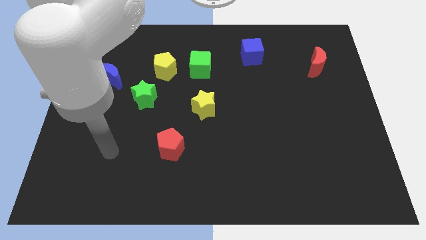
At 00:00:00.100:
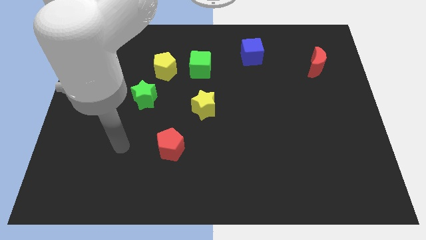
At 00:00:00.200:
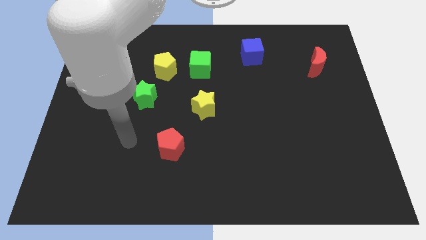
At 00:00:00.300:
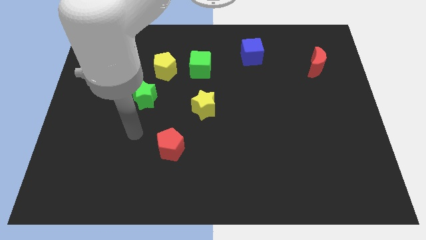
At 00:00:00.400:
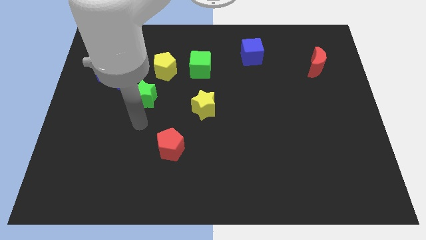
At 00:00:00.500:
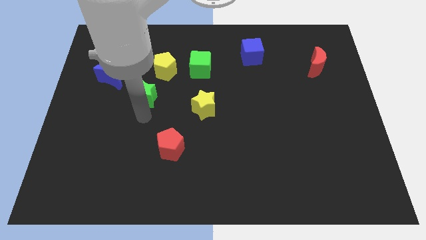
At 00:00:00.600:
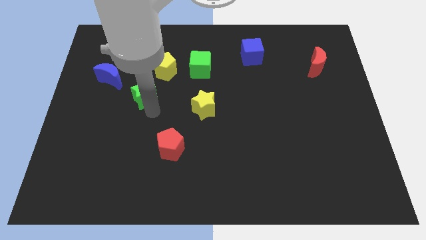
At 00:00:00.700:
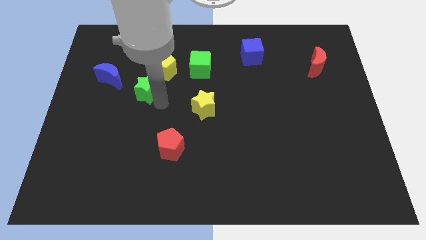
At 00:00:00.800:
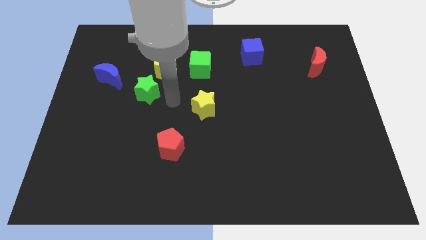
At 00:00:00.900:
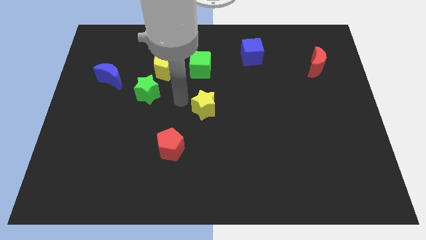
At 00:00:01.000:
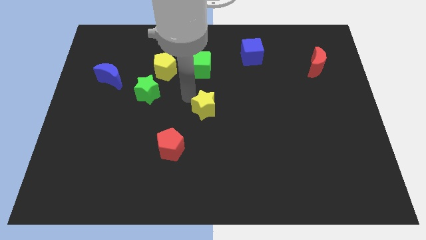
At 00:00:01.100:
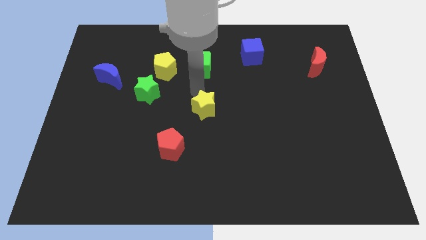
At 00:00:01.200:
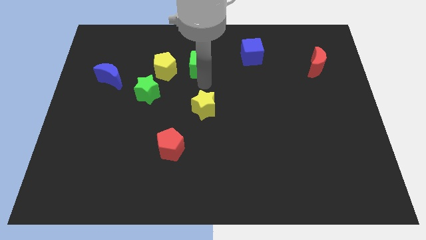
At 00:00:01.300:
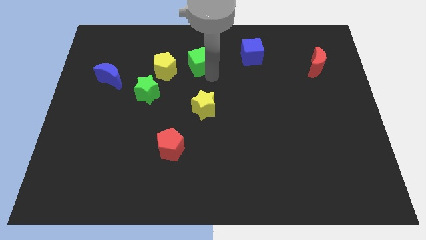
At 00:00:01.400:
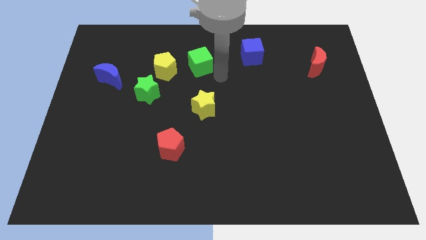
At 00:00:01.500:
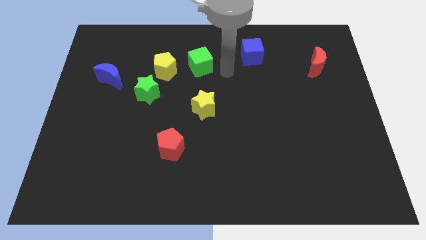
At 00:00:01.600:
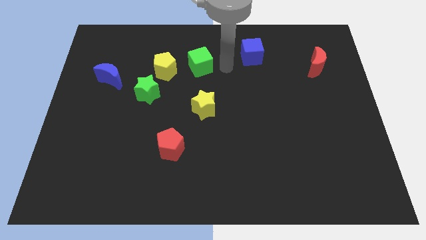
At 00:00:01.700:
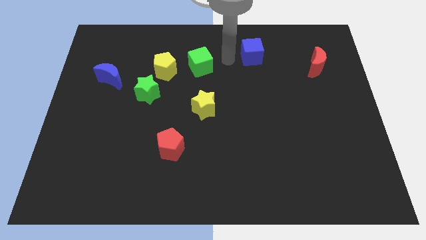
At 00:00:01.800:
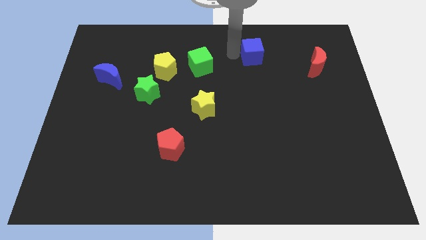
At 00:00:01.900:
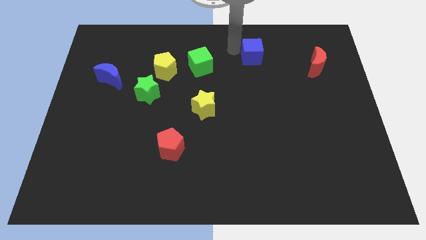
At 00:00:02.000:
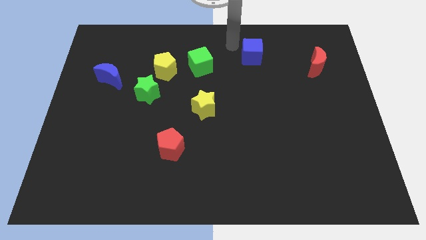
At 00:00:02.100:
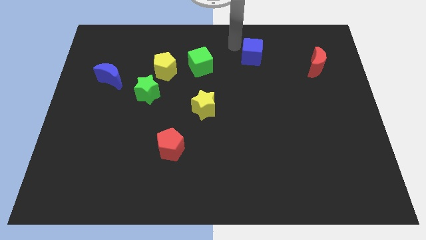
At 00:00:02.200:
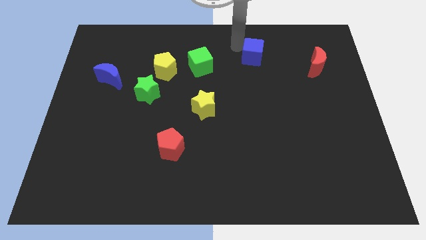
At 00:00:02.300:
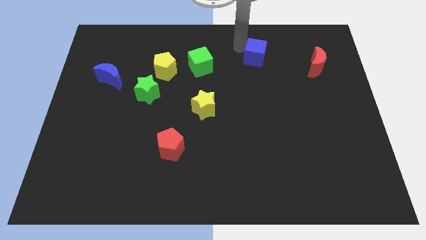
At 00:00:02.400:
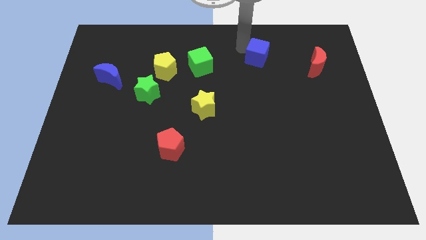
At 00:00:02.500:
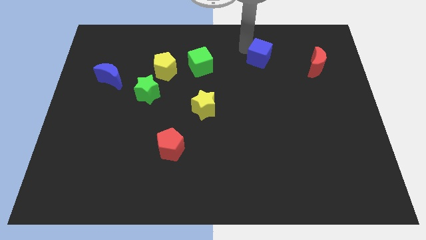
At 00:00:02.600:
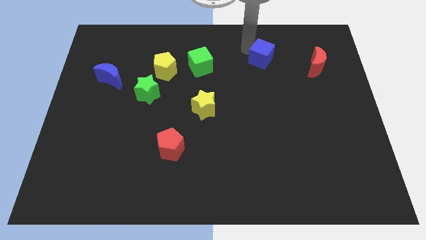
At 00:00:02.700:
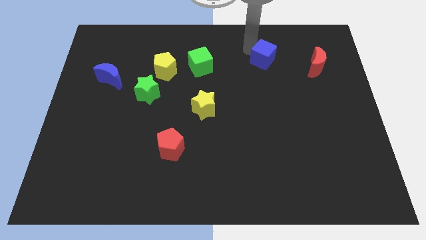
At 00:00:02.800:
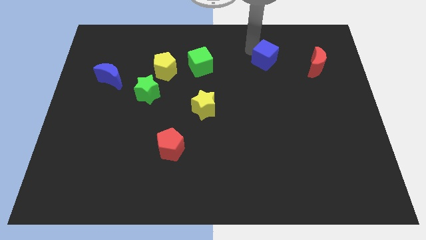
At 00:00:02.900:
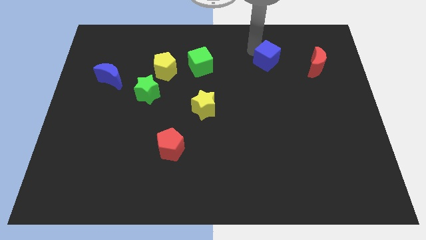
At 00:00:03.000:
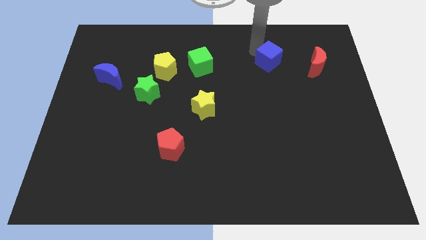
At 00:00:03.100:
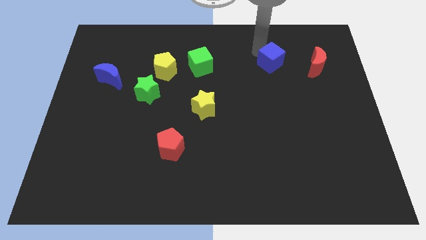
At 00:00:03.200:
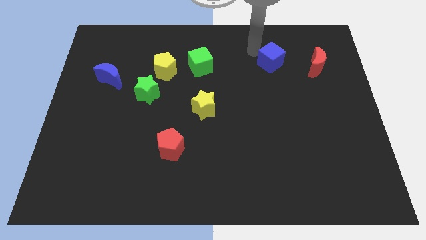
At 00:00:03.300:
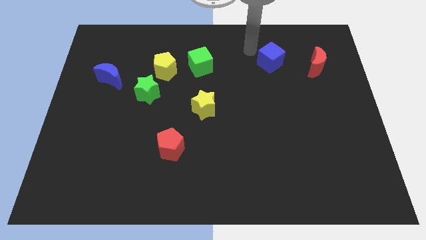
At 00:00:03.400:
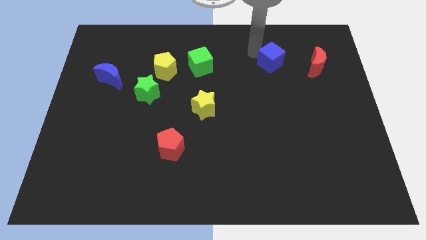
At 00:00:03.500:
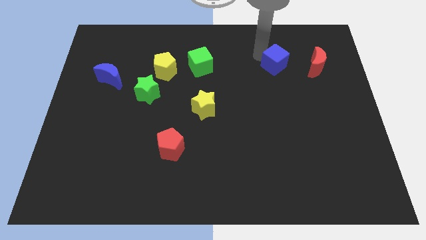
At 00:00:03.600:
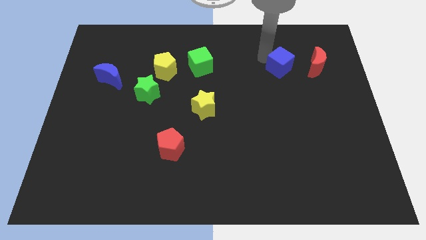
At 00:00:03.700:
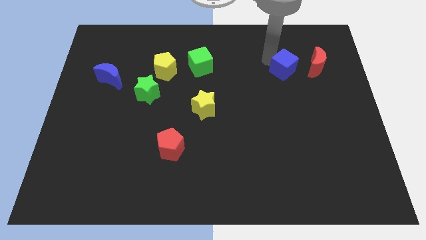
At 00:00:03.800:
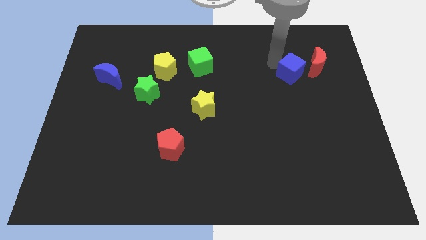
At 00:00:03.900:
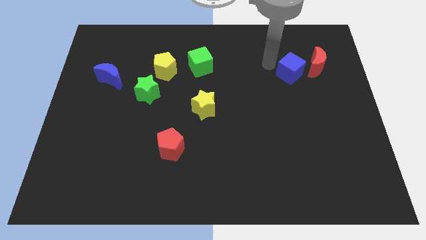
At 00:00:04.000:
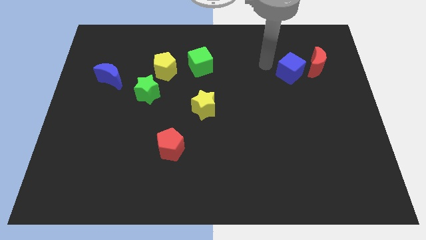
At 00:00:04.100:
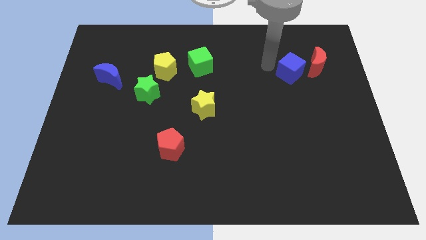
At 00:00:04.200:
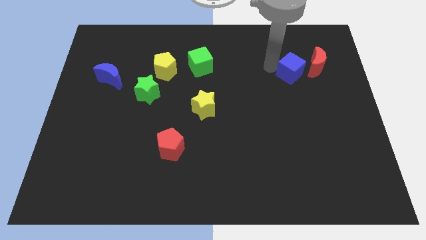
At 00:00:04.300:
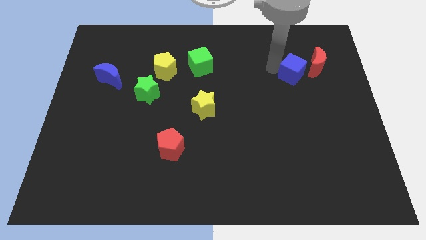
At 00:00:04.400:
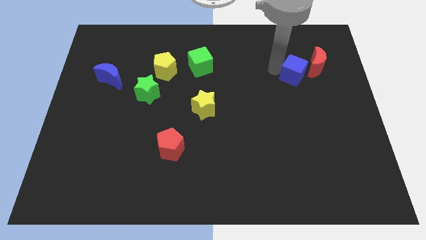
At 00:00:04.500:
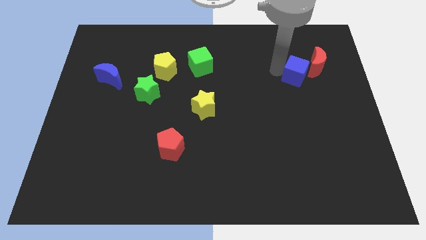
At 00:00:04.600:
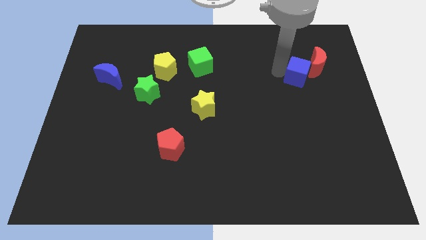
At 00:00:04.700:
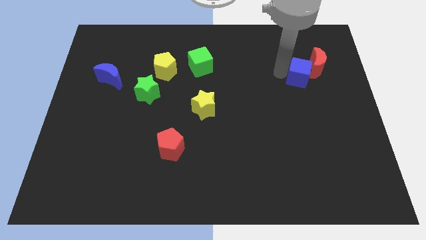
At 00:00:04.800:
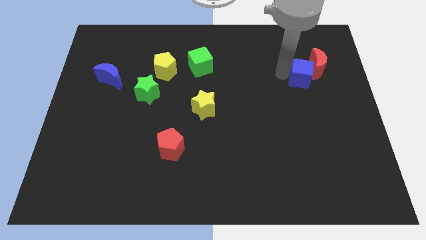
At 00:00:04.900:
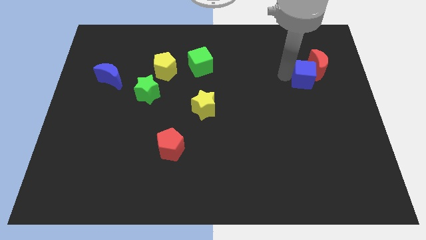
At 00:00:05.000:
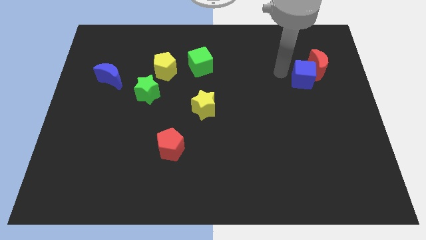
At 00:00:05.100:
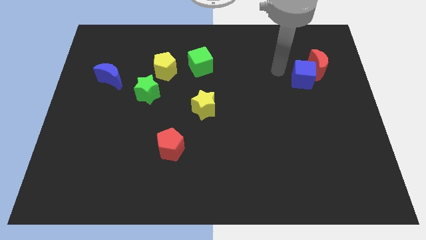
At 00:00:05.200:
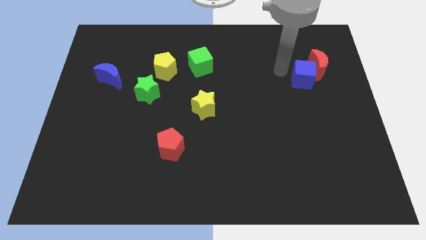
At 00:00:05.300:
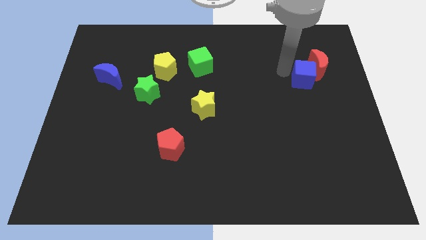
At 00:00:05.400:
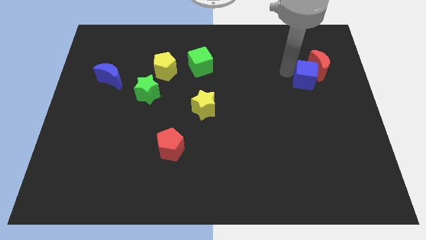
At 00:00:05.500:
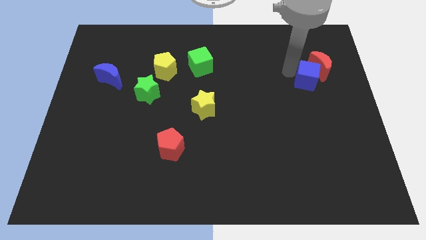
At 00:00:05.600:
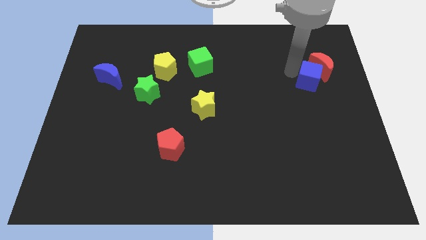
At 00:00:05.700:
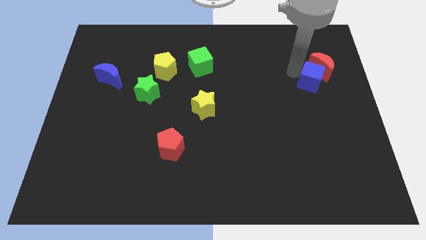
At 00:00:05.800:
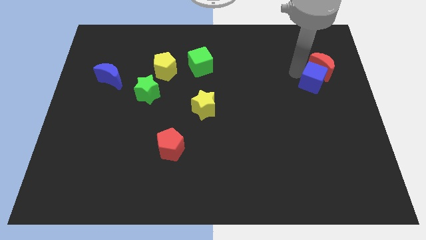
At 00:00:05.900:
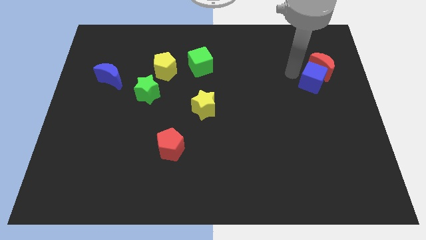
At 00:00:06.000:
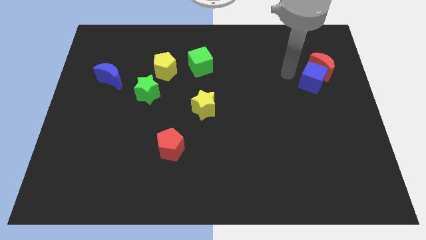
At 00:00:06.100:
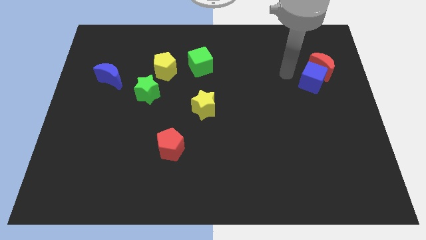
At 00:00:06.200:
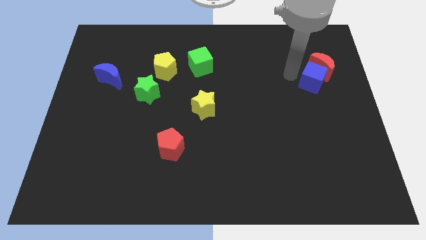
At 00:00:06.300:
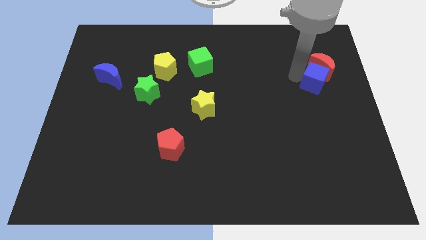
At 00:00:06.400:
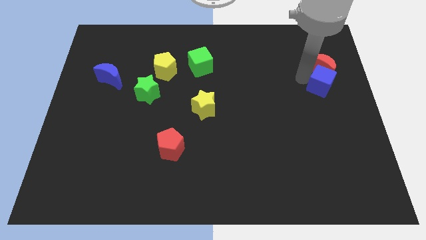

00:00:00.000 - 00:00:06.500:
slide the blue cube to the center right
